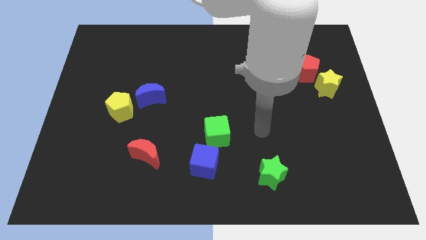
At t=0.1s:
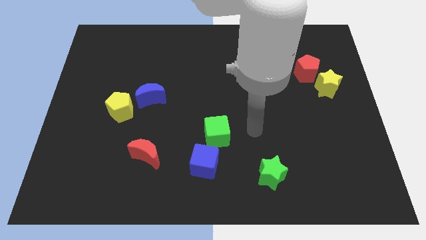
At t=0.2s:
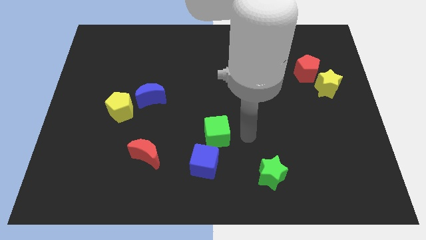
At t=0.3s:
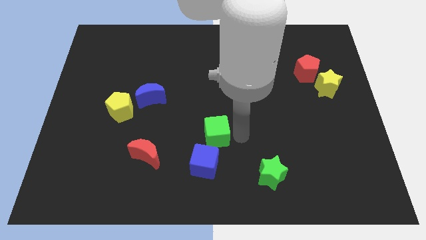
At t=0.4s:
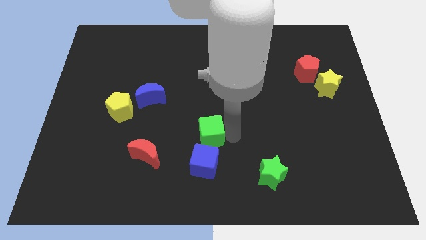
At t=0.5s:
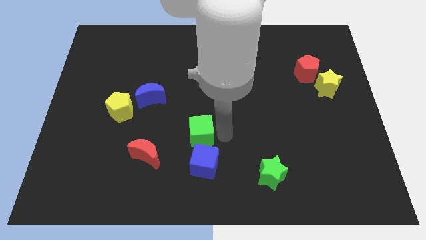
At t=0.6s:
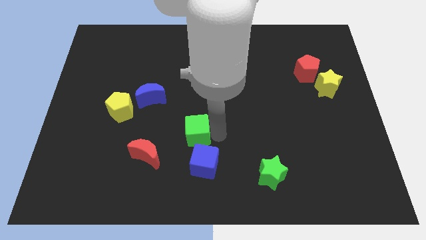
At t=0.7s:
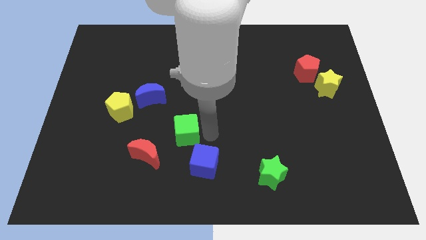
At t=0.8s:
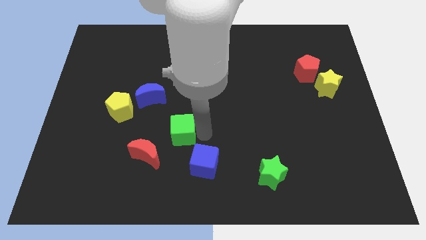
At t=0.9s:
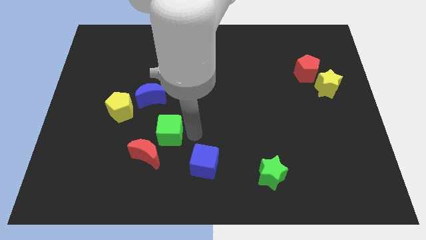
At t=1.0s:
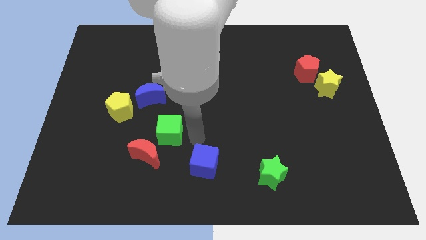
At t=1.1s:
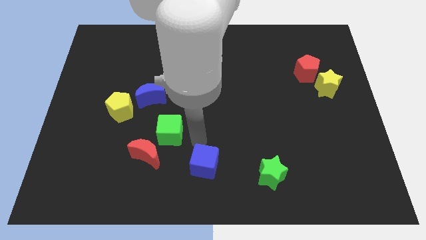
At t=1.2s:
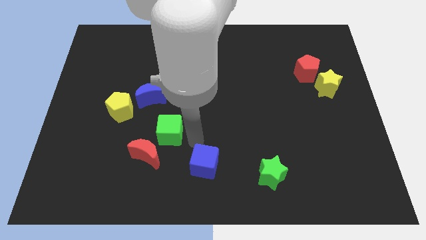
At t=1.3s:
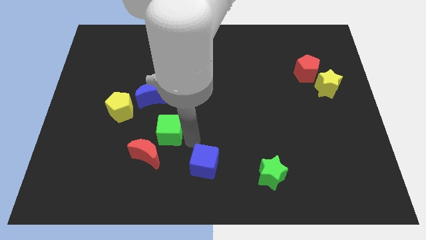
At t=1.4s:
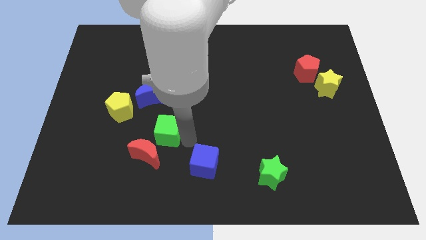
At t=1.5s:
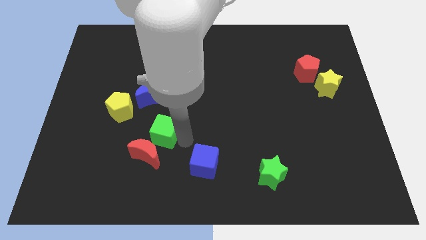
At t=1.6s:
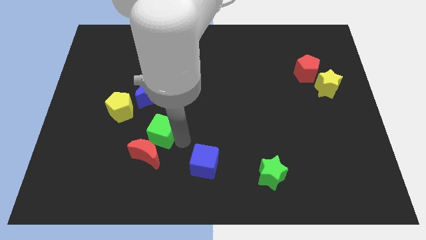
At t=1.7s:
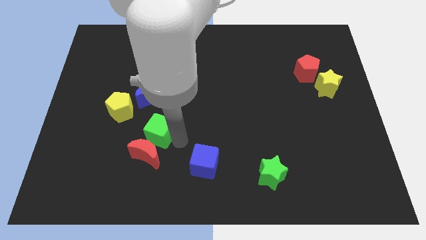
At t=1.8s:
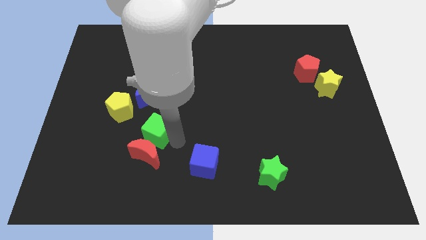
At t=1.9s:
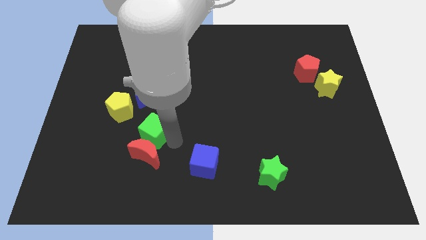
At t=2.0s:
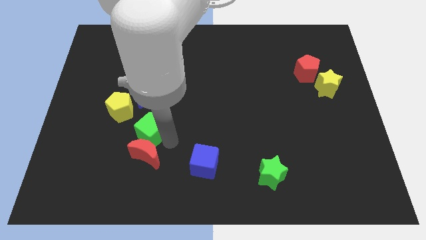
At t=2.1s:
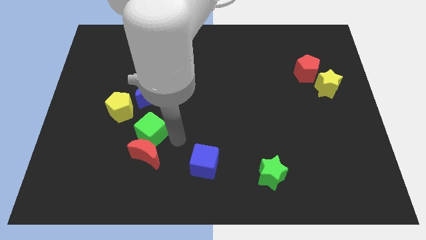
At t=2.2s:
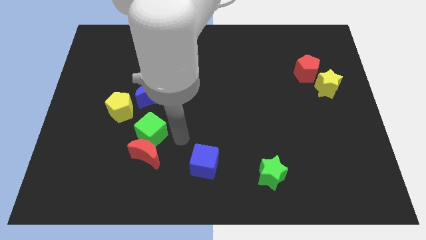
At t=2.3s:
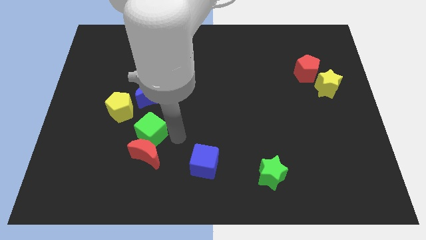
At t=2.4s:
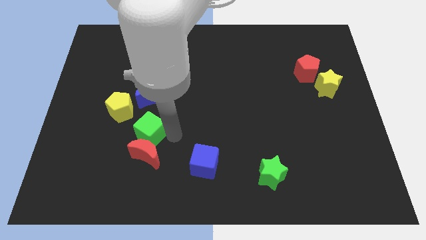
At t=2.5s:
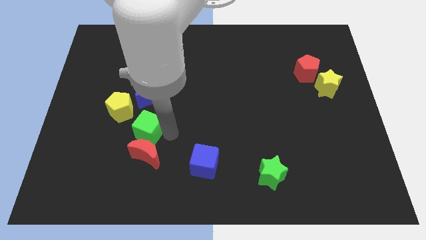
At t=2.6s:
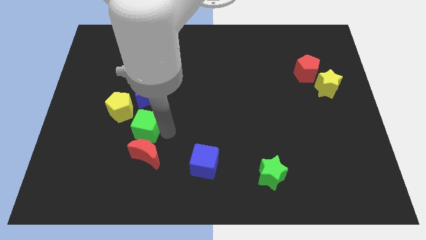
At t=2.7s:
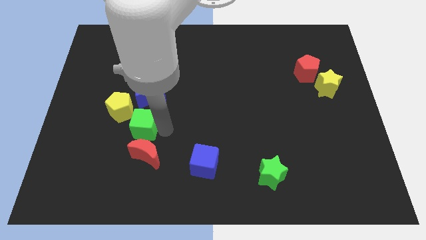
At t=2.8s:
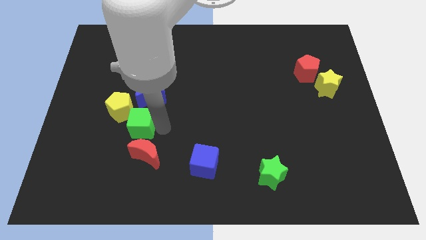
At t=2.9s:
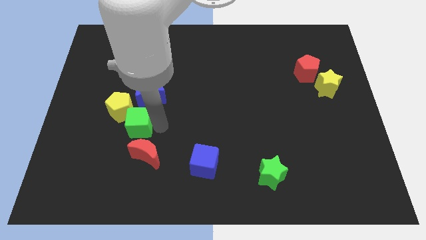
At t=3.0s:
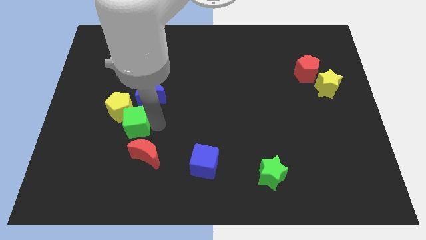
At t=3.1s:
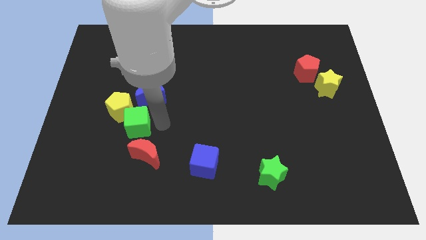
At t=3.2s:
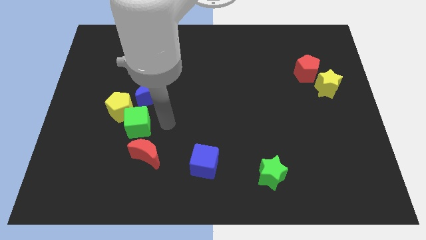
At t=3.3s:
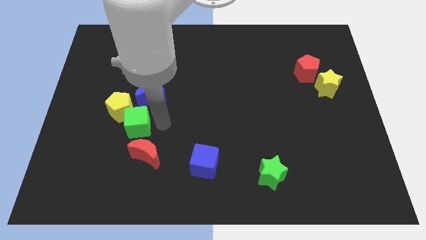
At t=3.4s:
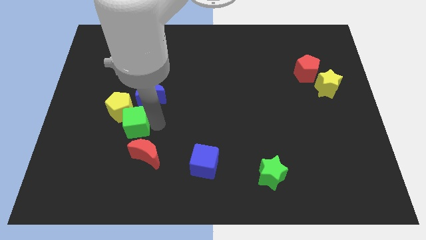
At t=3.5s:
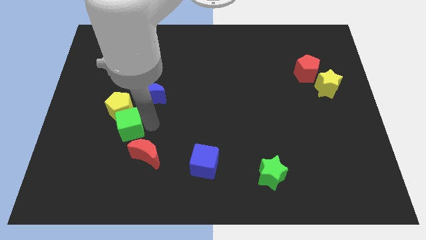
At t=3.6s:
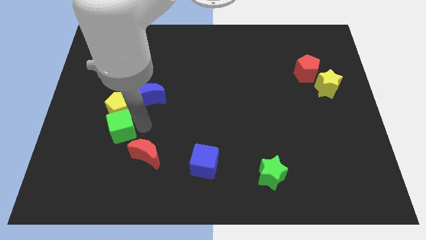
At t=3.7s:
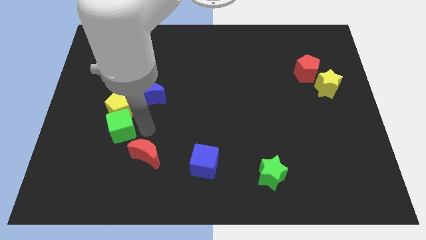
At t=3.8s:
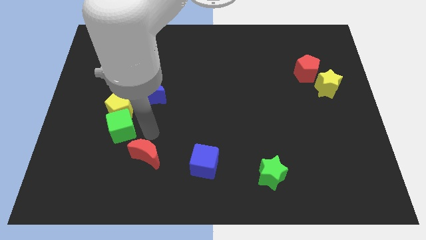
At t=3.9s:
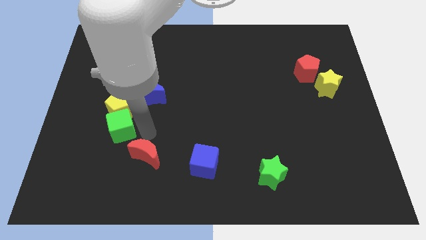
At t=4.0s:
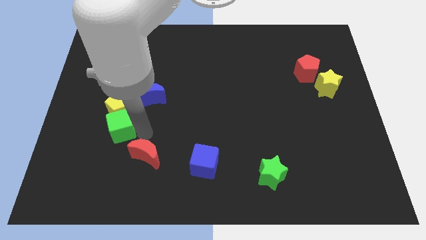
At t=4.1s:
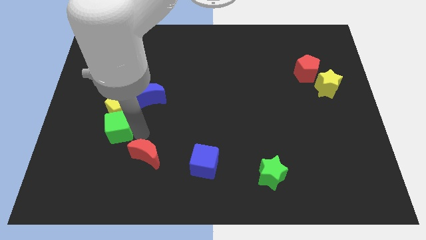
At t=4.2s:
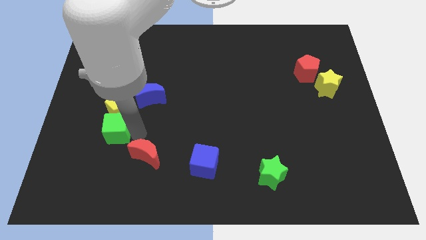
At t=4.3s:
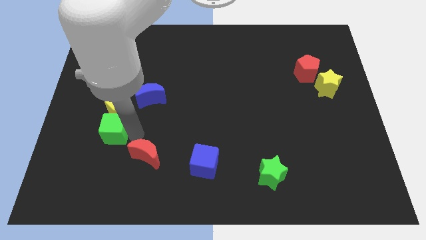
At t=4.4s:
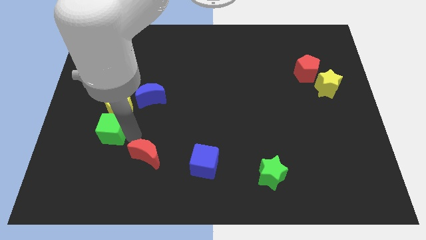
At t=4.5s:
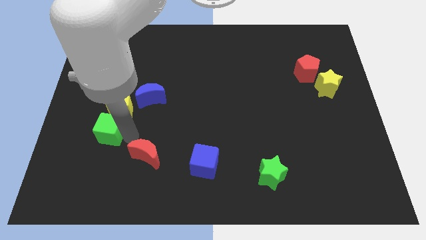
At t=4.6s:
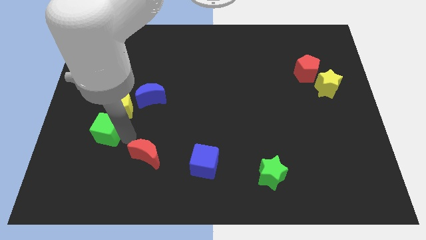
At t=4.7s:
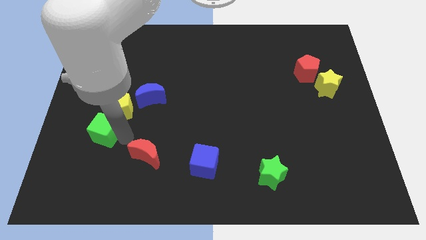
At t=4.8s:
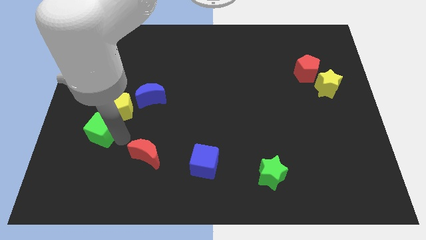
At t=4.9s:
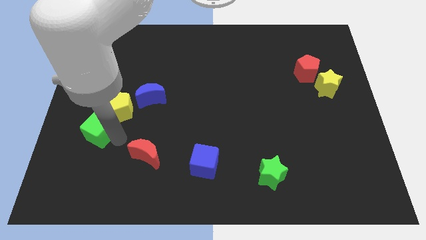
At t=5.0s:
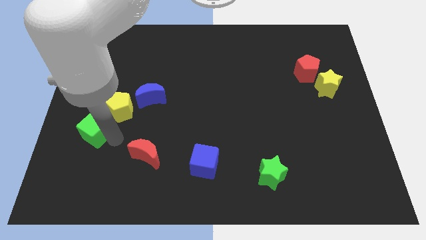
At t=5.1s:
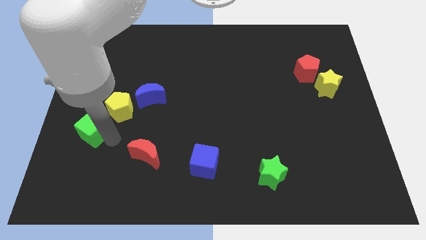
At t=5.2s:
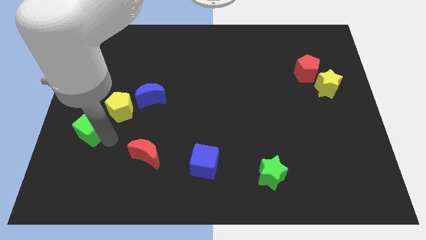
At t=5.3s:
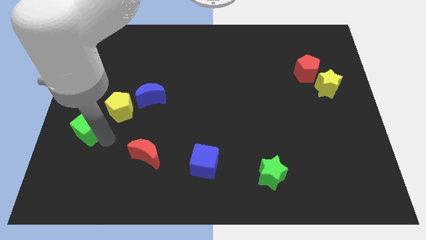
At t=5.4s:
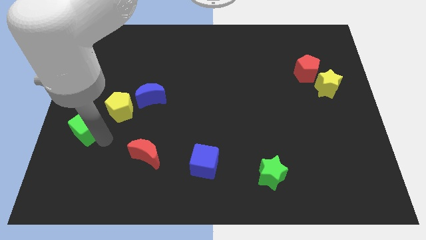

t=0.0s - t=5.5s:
put the green cube to the center left
